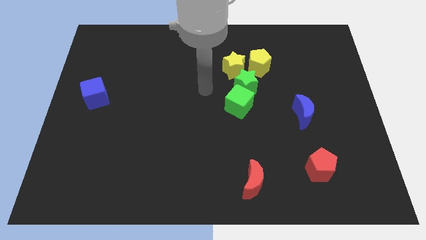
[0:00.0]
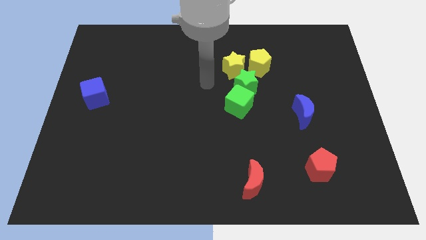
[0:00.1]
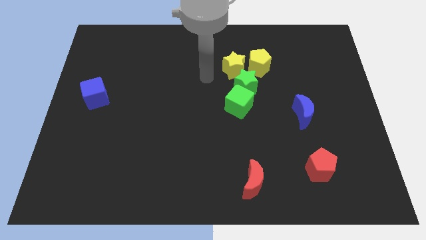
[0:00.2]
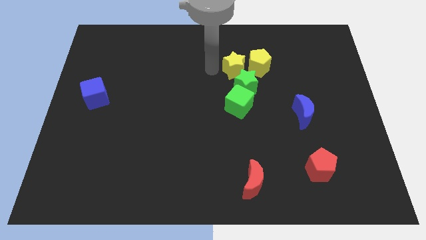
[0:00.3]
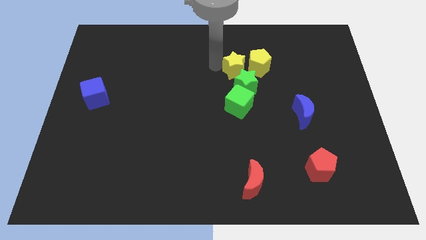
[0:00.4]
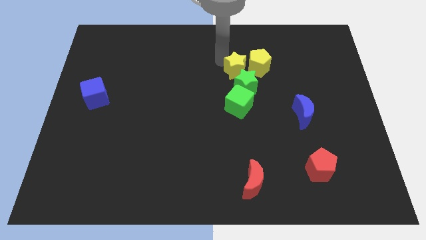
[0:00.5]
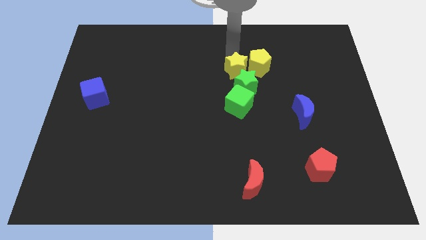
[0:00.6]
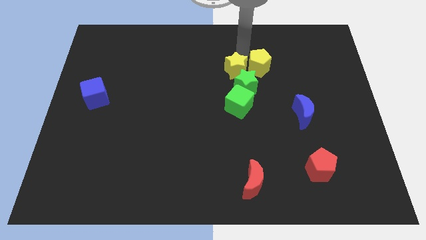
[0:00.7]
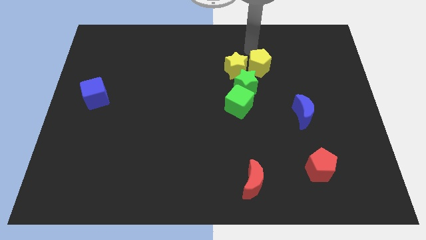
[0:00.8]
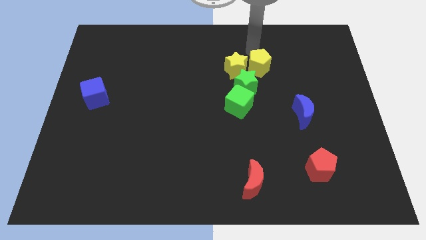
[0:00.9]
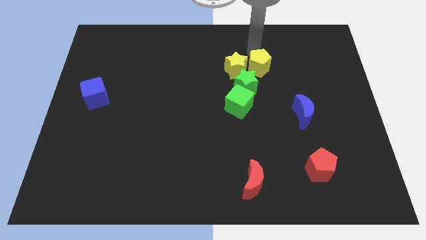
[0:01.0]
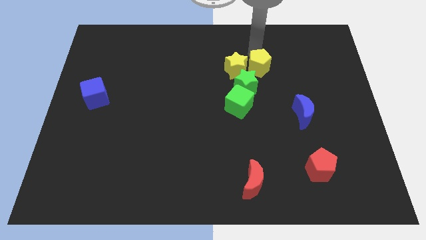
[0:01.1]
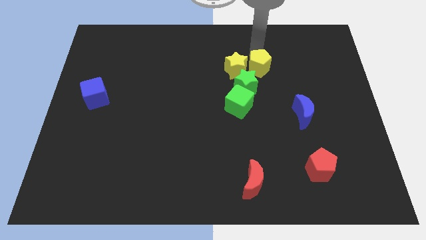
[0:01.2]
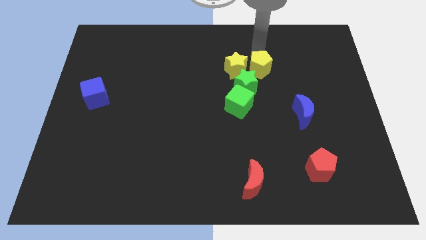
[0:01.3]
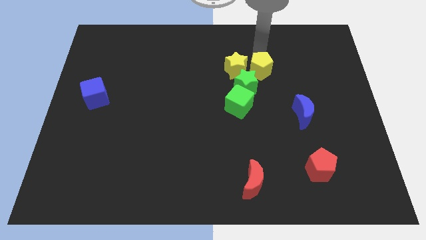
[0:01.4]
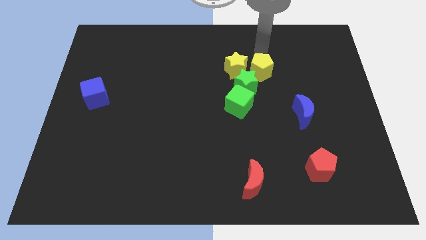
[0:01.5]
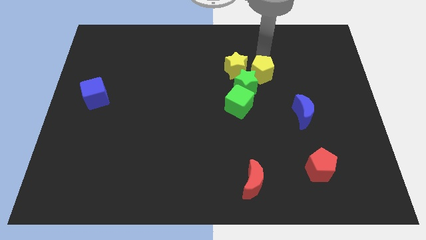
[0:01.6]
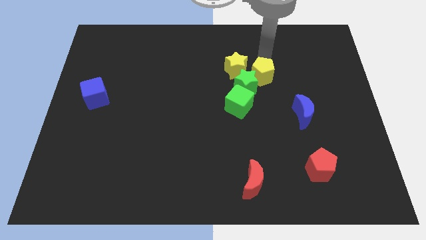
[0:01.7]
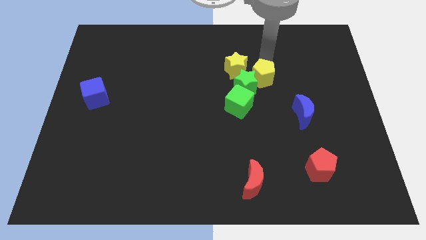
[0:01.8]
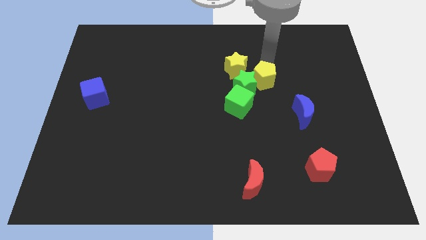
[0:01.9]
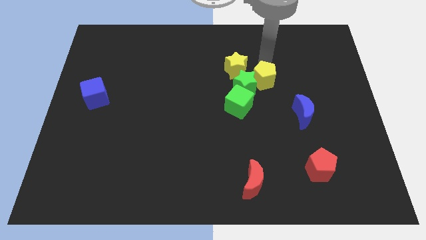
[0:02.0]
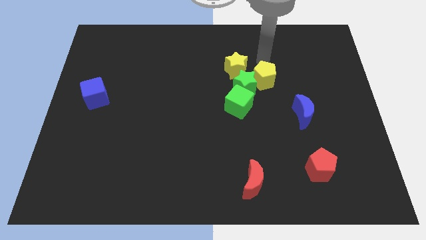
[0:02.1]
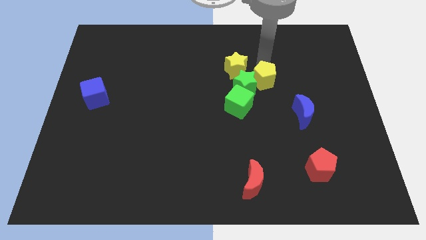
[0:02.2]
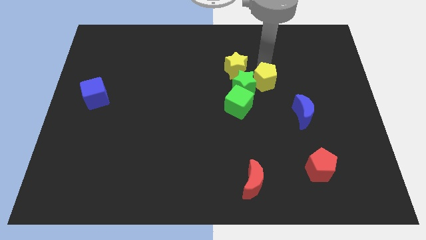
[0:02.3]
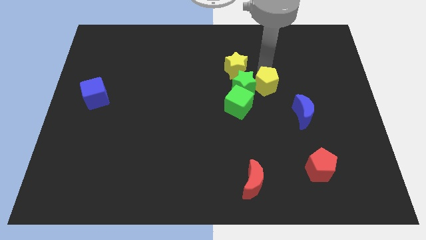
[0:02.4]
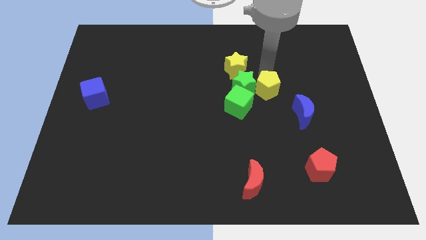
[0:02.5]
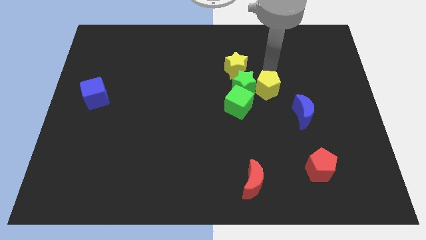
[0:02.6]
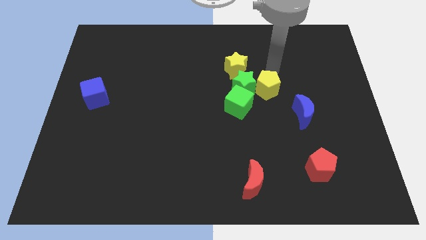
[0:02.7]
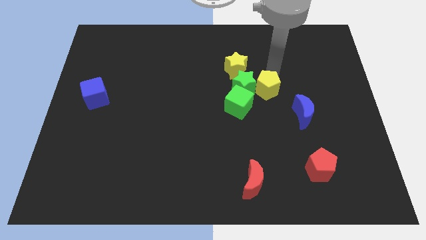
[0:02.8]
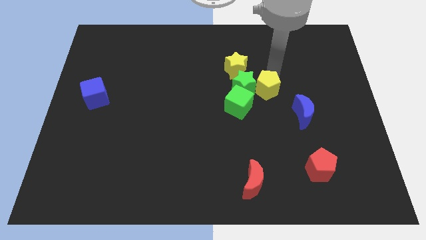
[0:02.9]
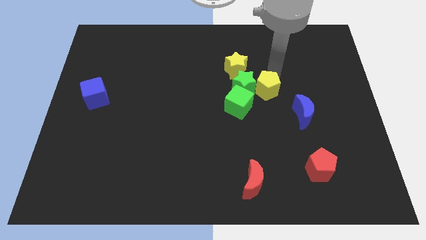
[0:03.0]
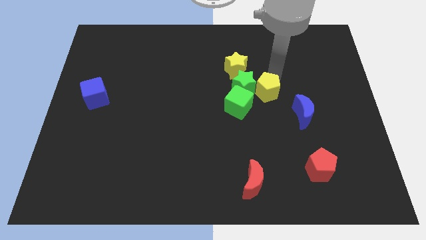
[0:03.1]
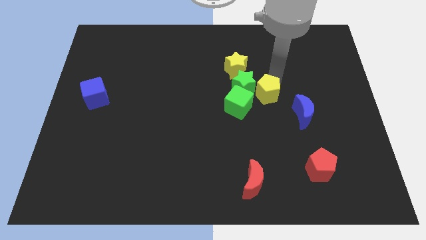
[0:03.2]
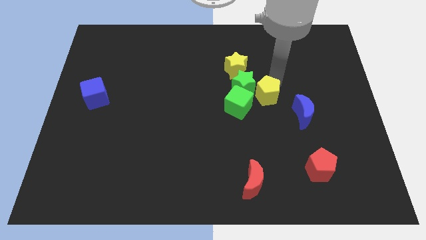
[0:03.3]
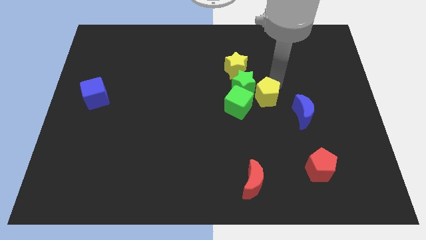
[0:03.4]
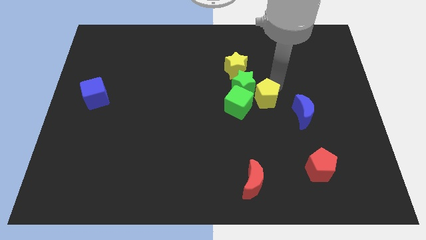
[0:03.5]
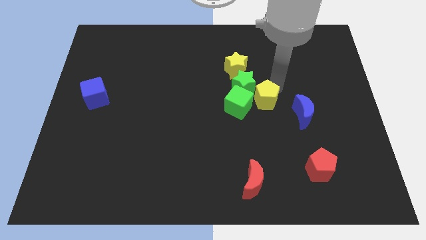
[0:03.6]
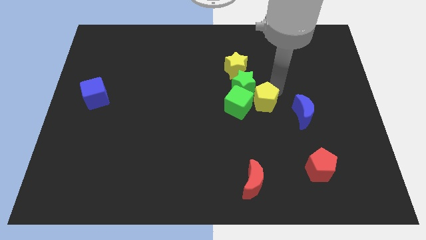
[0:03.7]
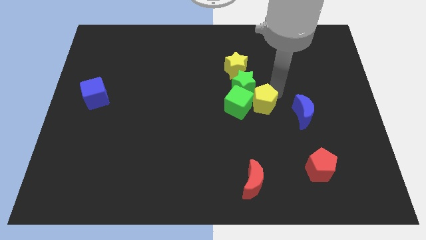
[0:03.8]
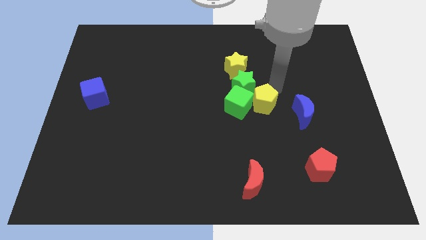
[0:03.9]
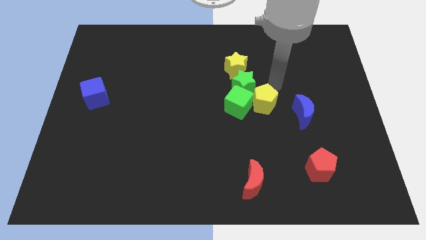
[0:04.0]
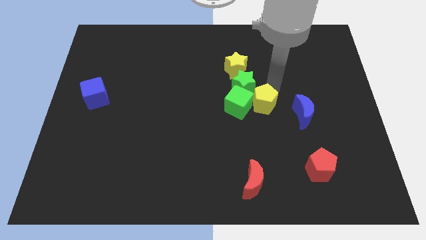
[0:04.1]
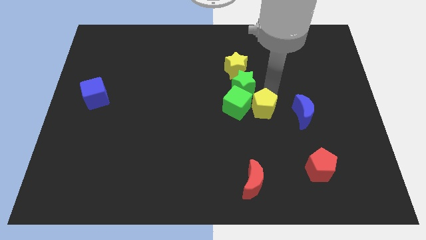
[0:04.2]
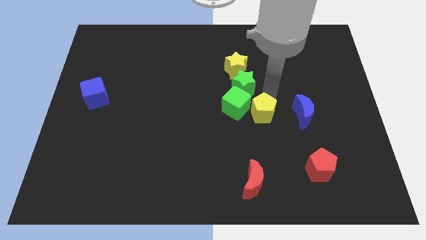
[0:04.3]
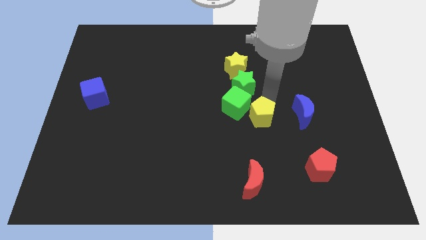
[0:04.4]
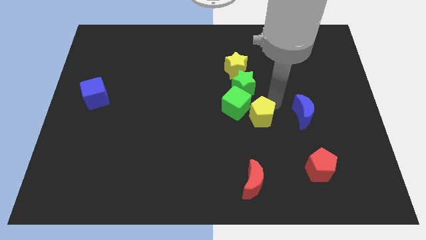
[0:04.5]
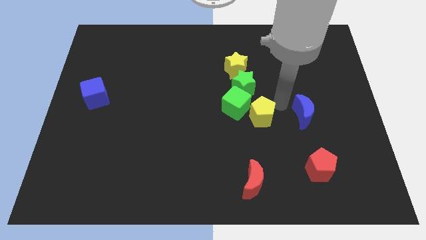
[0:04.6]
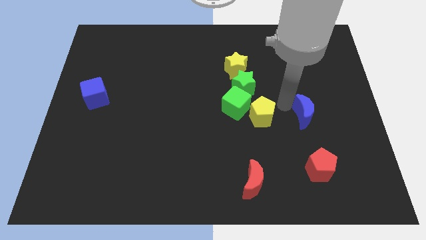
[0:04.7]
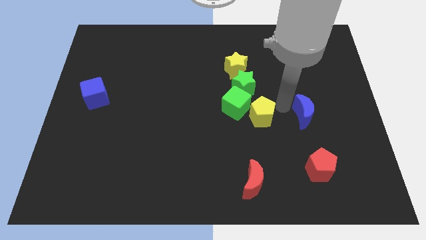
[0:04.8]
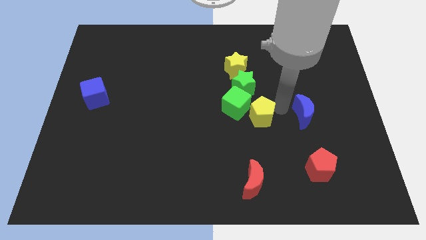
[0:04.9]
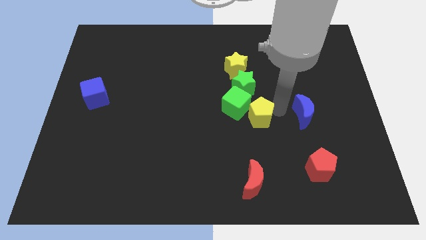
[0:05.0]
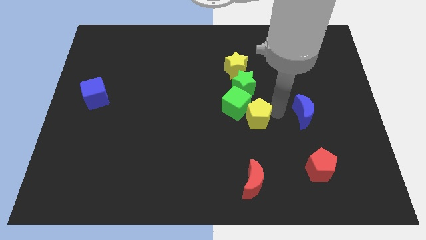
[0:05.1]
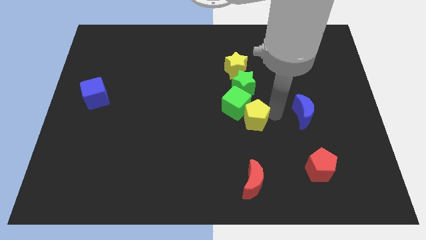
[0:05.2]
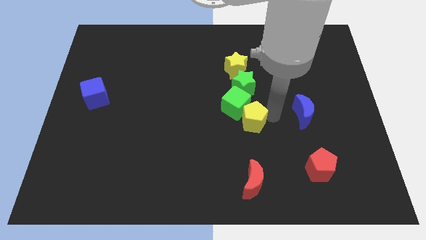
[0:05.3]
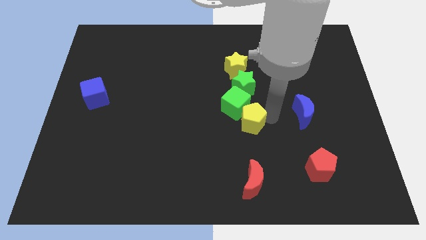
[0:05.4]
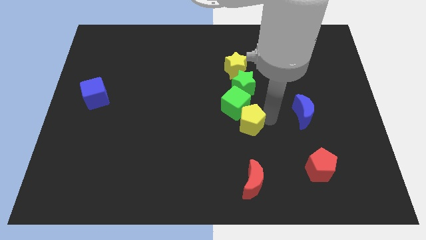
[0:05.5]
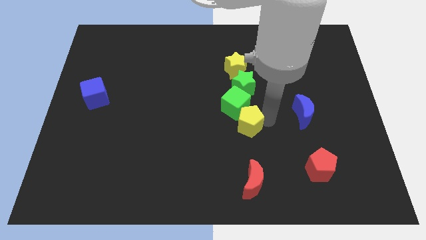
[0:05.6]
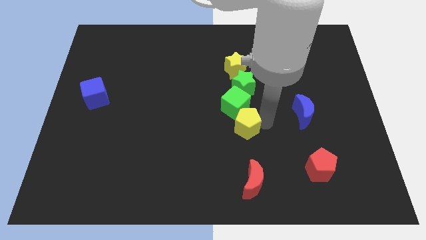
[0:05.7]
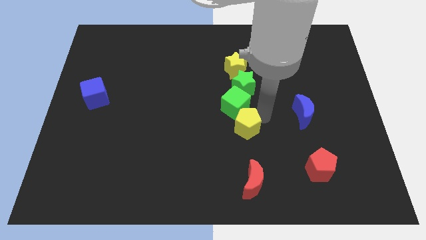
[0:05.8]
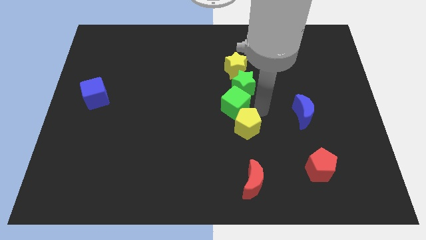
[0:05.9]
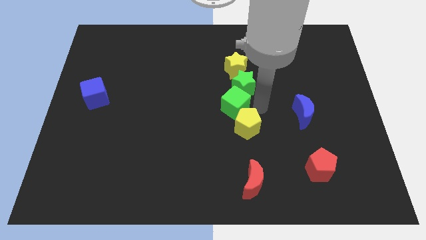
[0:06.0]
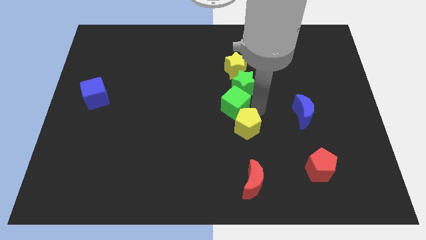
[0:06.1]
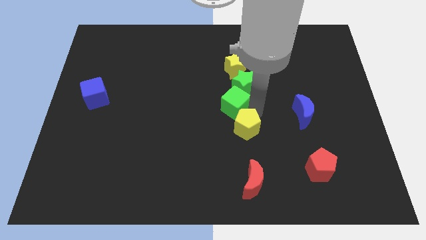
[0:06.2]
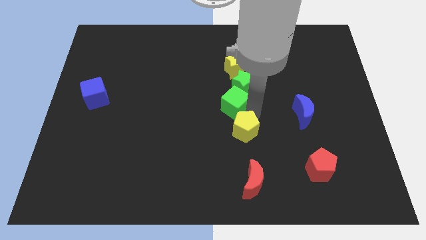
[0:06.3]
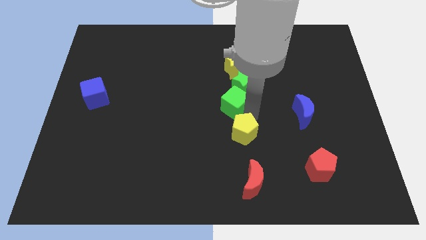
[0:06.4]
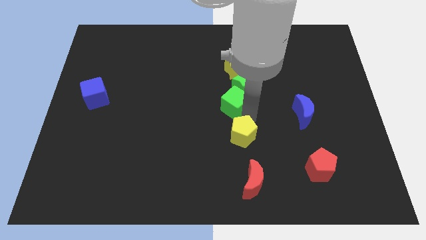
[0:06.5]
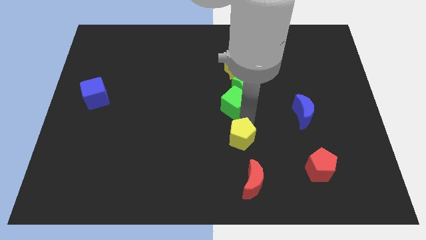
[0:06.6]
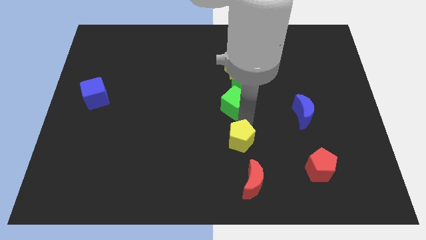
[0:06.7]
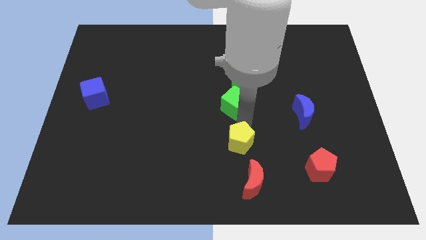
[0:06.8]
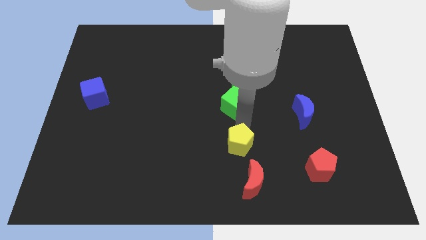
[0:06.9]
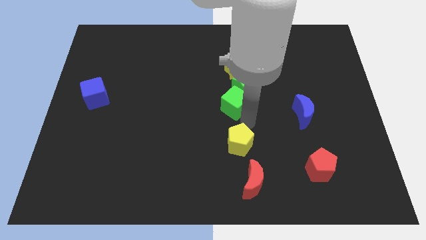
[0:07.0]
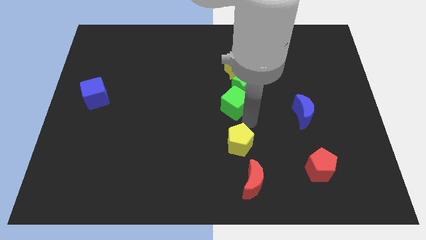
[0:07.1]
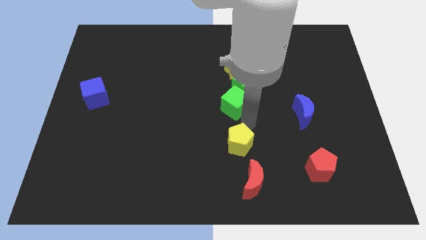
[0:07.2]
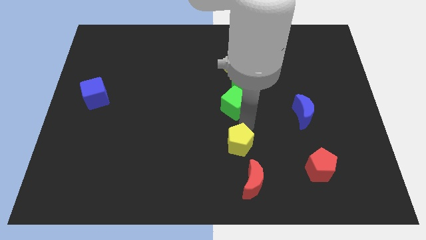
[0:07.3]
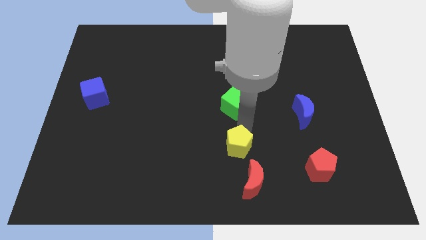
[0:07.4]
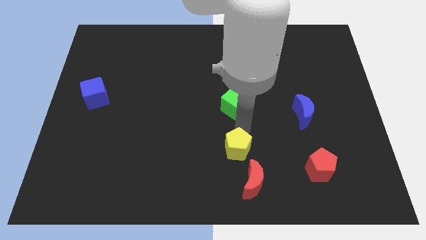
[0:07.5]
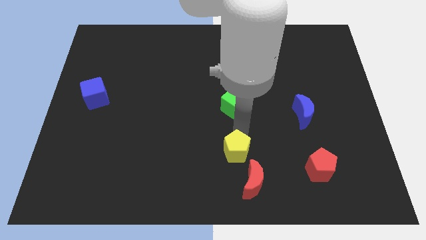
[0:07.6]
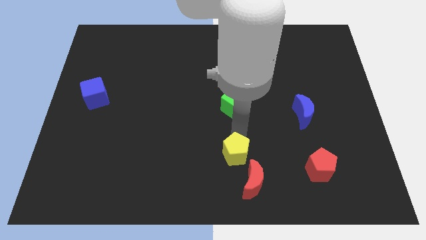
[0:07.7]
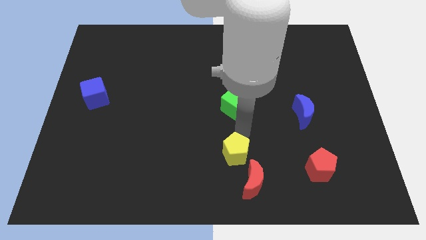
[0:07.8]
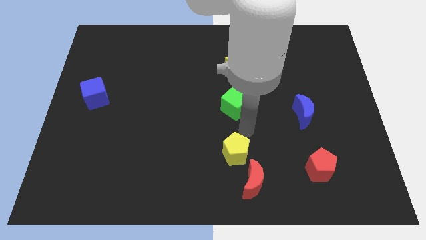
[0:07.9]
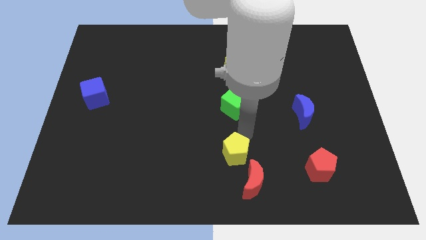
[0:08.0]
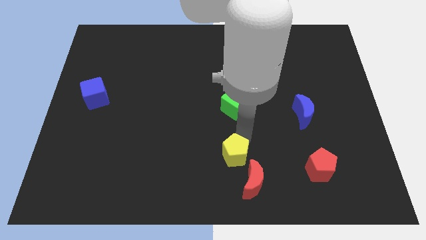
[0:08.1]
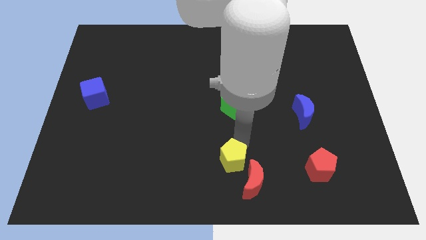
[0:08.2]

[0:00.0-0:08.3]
put the yellow pentagon to the bottom
